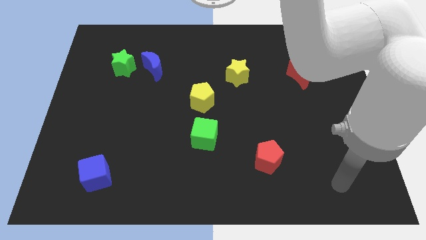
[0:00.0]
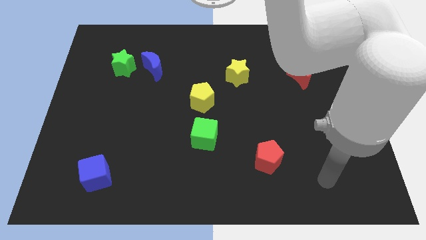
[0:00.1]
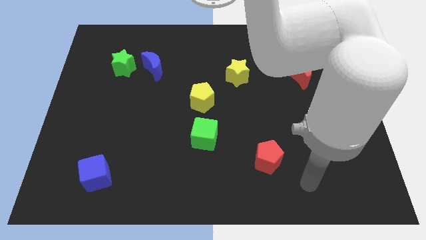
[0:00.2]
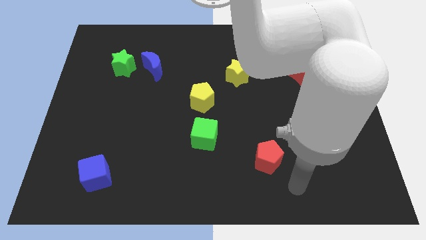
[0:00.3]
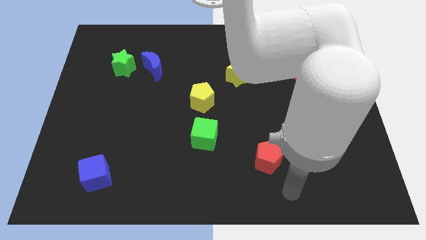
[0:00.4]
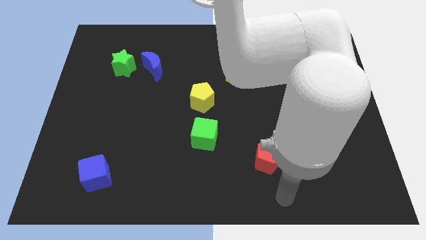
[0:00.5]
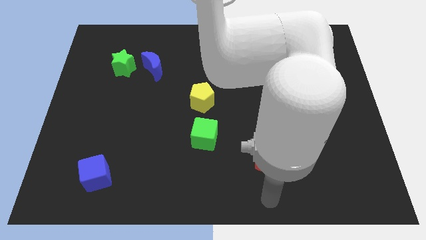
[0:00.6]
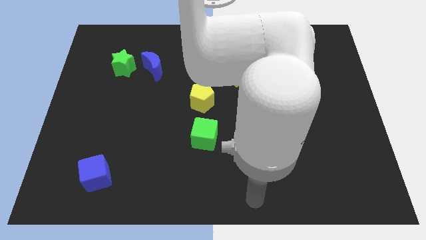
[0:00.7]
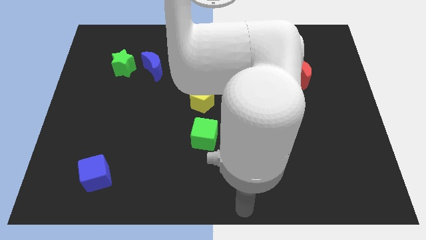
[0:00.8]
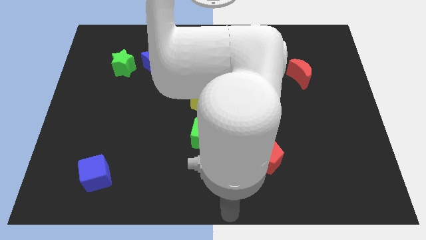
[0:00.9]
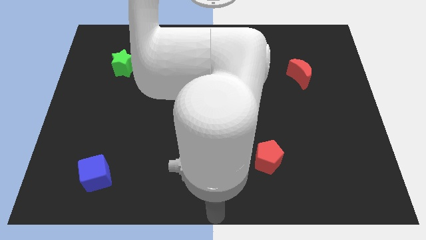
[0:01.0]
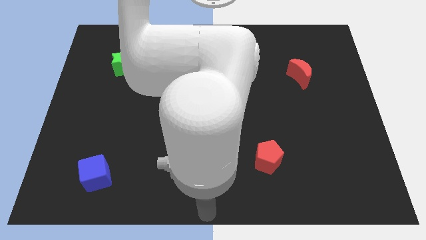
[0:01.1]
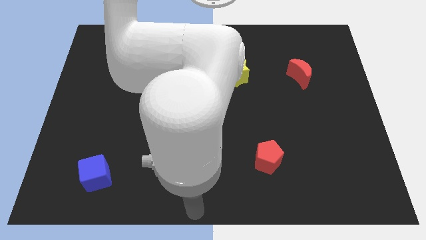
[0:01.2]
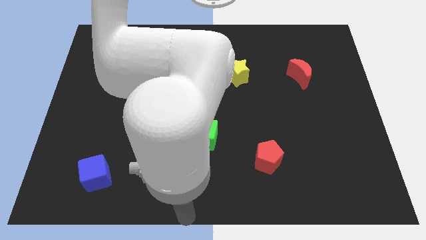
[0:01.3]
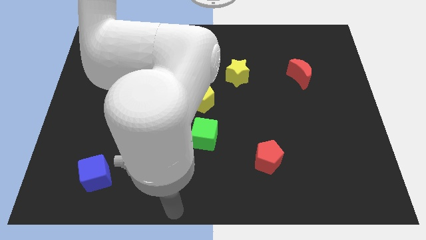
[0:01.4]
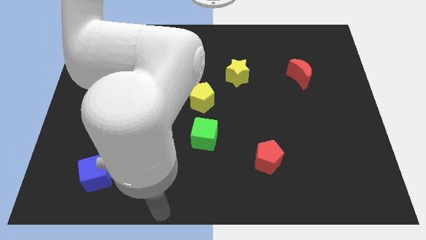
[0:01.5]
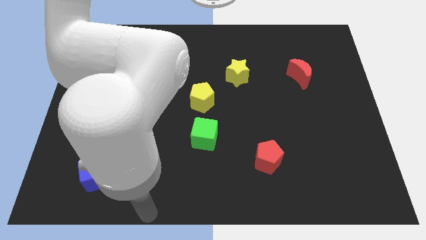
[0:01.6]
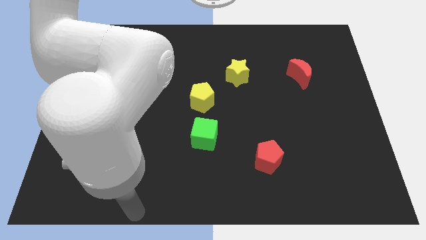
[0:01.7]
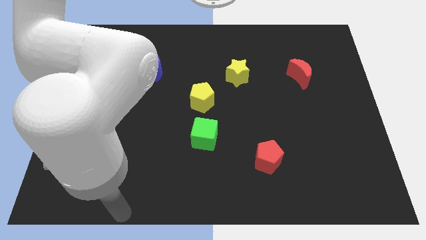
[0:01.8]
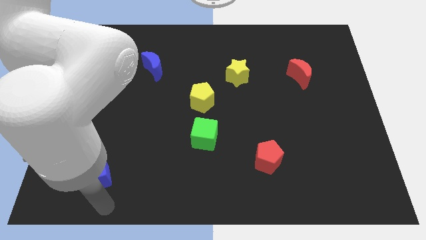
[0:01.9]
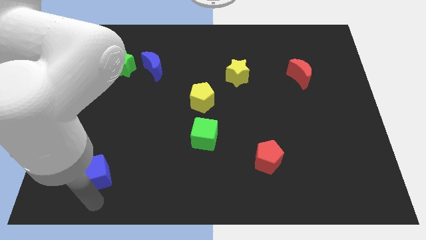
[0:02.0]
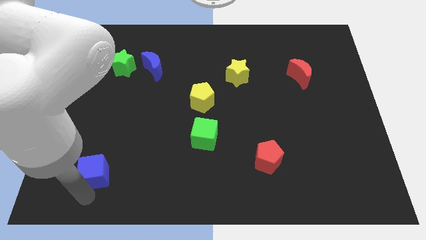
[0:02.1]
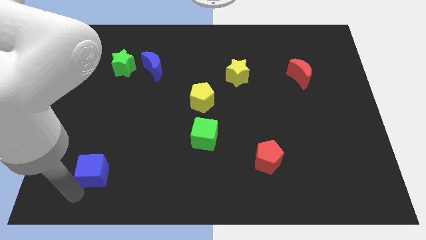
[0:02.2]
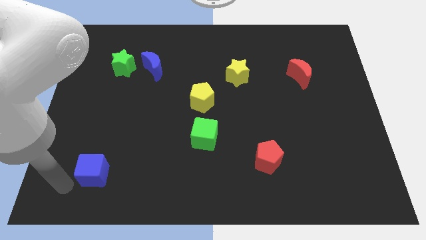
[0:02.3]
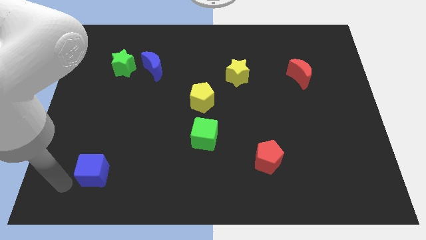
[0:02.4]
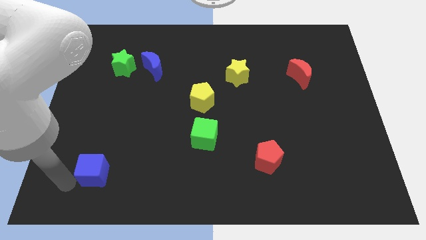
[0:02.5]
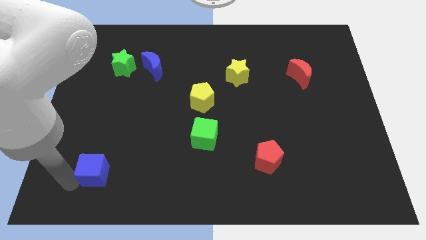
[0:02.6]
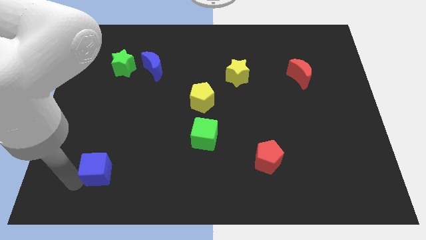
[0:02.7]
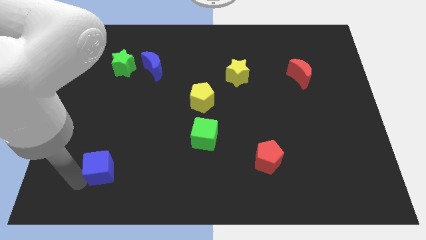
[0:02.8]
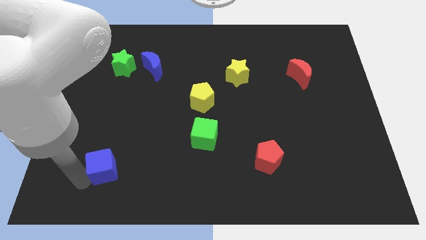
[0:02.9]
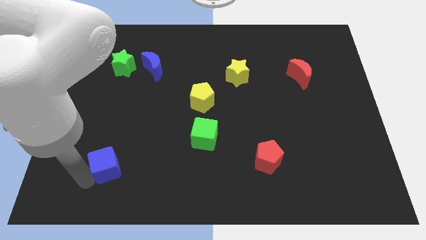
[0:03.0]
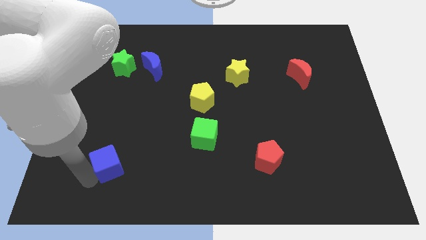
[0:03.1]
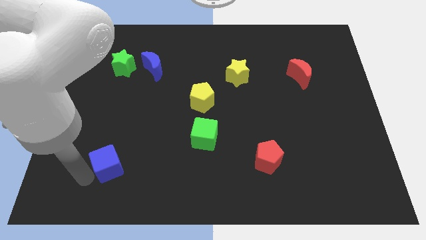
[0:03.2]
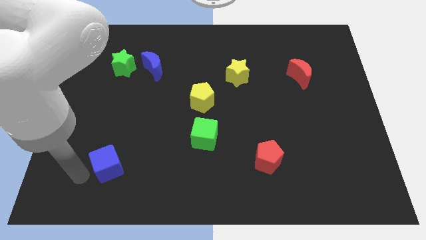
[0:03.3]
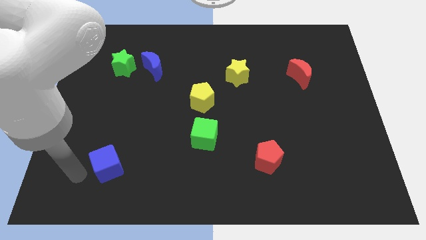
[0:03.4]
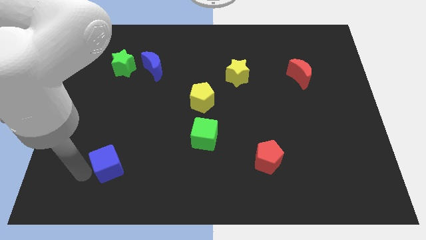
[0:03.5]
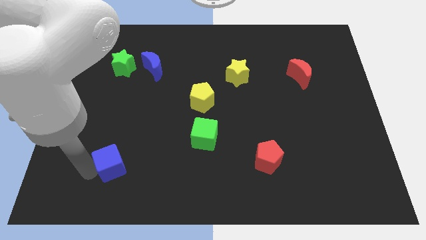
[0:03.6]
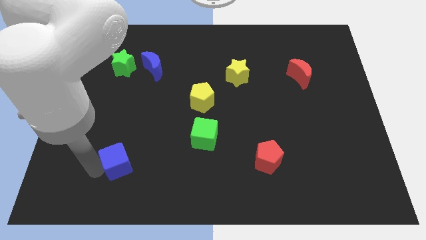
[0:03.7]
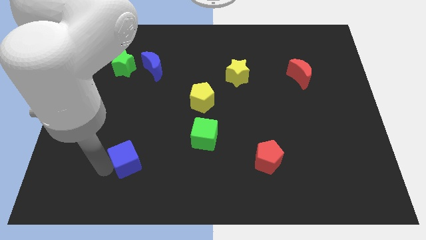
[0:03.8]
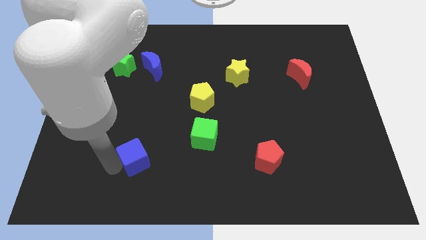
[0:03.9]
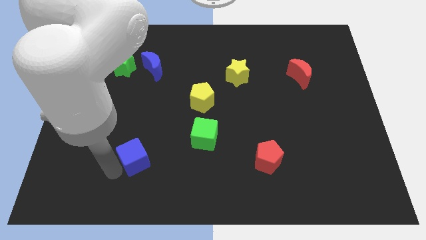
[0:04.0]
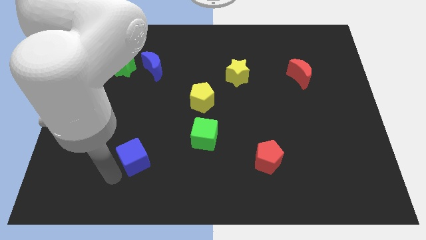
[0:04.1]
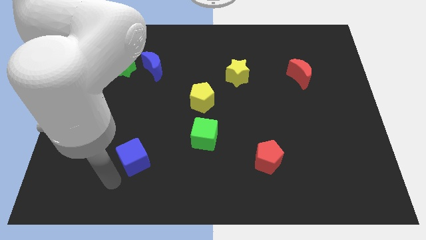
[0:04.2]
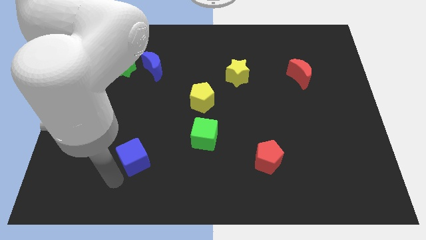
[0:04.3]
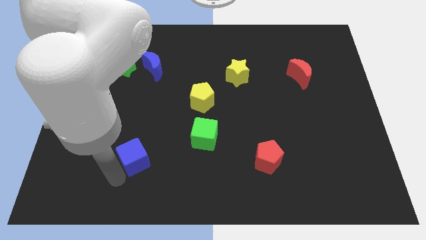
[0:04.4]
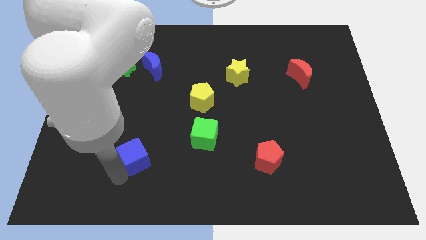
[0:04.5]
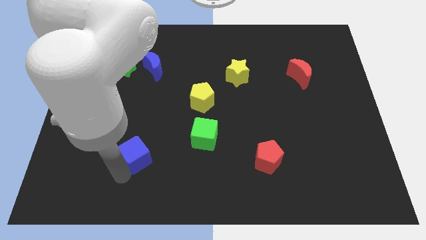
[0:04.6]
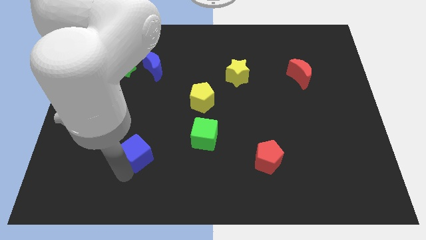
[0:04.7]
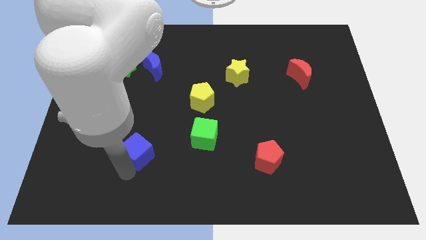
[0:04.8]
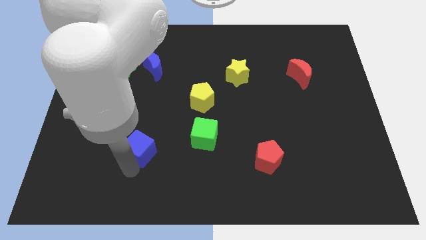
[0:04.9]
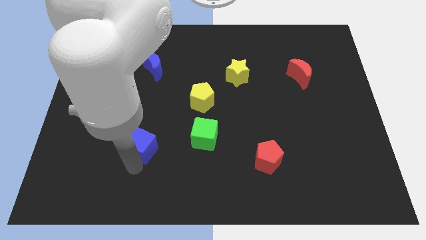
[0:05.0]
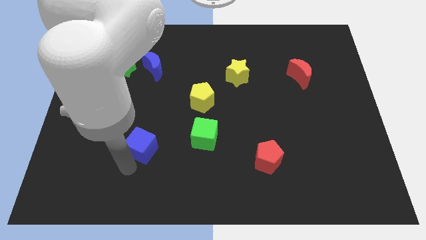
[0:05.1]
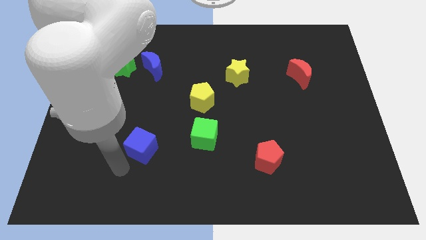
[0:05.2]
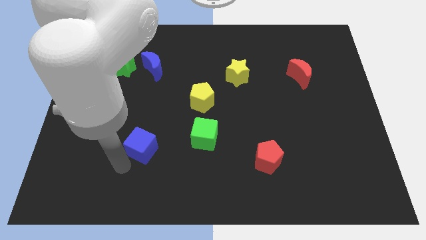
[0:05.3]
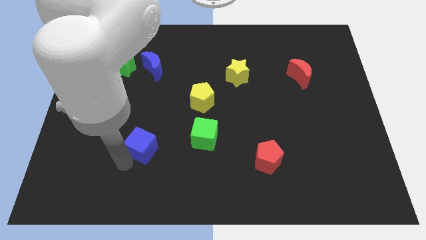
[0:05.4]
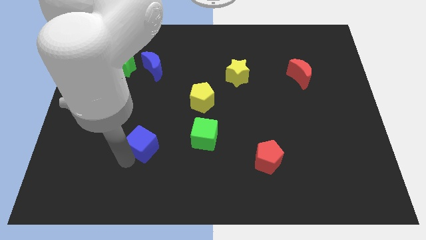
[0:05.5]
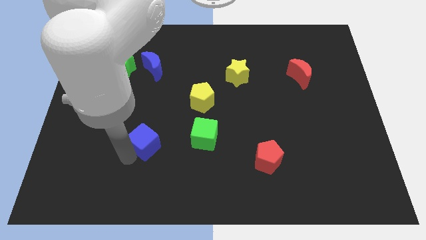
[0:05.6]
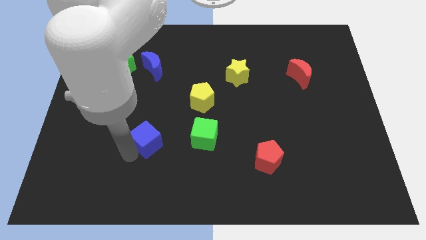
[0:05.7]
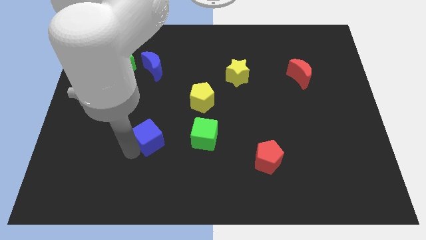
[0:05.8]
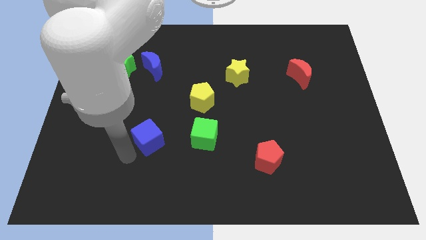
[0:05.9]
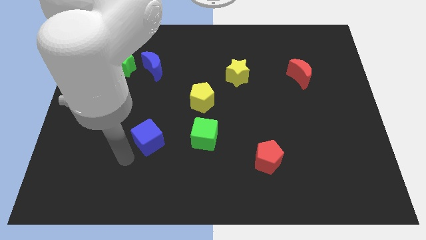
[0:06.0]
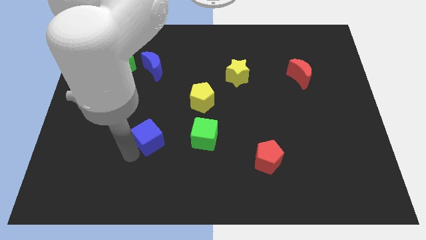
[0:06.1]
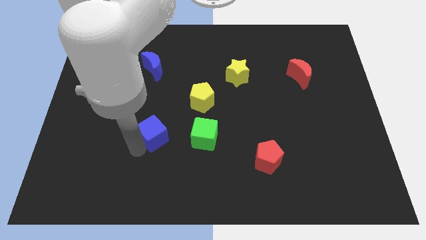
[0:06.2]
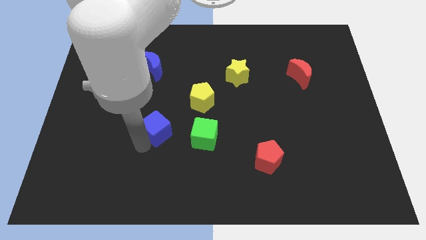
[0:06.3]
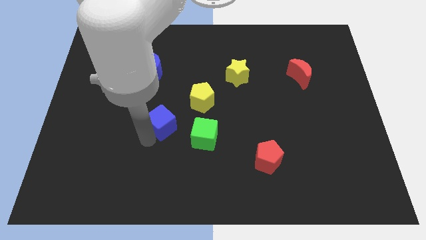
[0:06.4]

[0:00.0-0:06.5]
put the blue cube to the bottom left of the yellow pentagon
